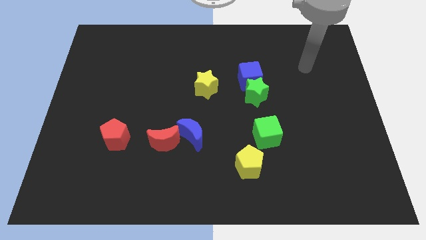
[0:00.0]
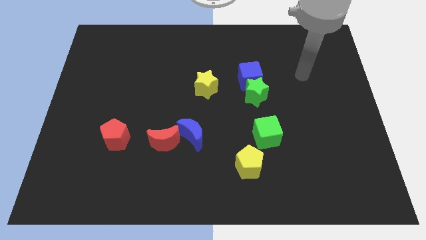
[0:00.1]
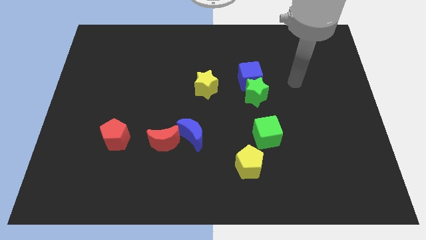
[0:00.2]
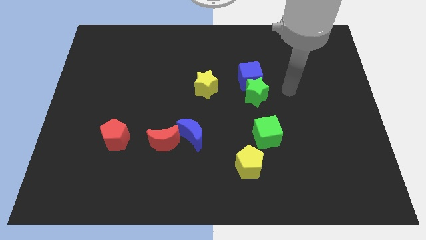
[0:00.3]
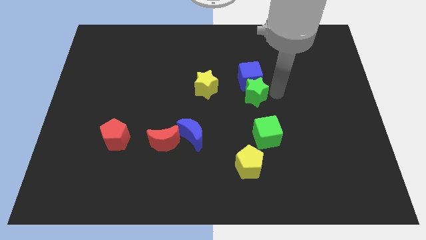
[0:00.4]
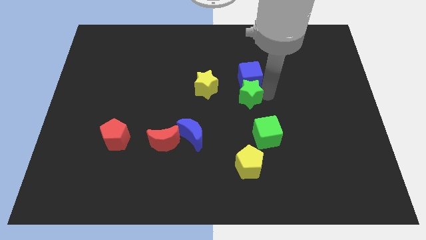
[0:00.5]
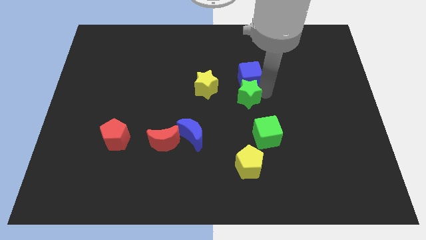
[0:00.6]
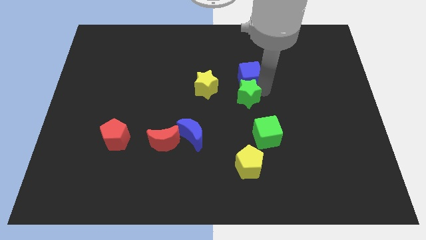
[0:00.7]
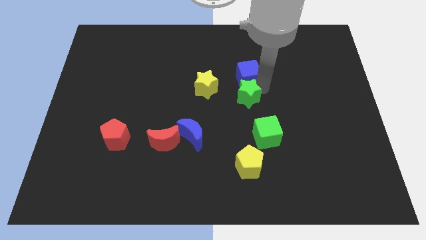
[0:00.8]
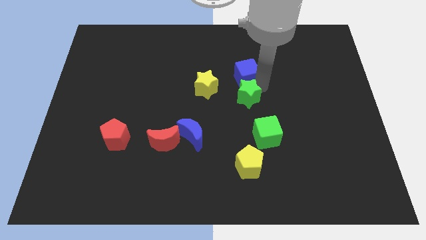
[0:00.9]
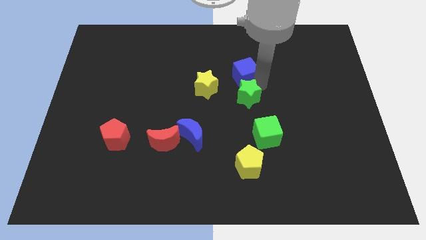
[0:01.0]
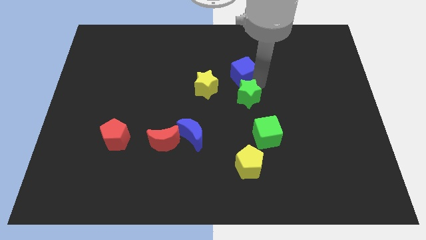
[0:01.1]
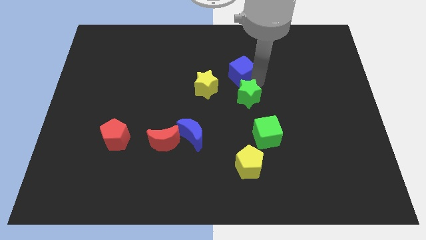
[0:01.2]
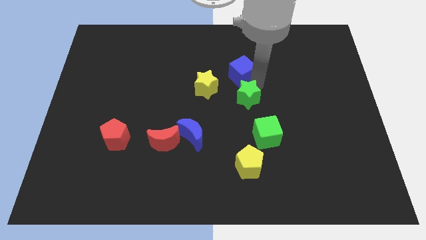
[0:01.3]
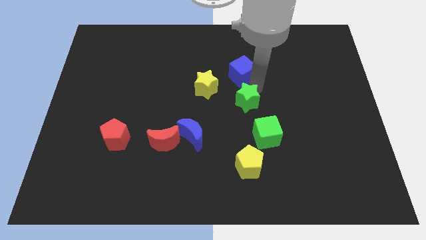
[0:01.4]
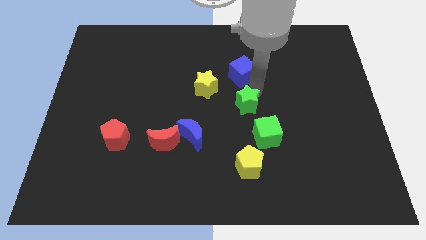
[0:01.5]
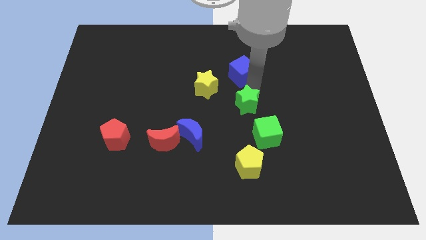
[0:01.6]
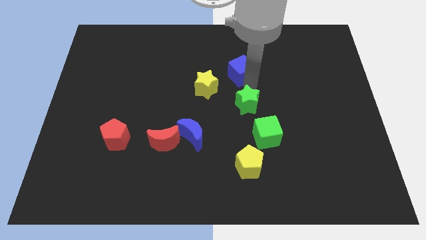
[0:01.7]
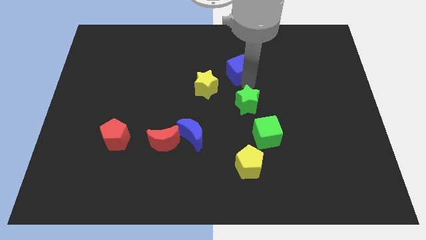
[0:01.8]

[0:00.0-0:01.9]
move the blue cube away from the green star

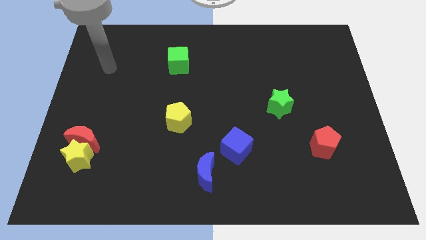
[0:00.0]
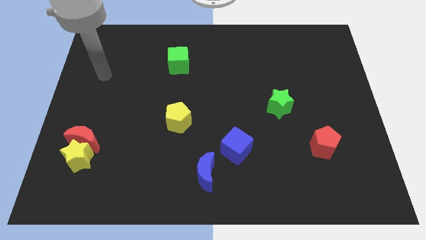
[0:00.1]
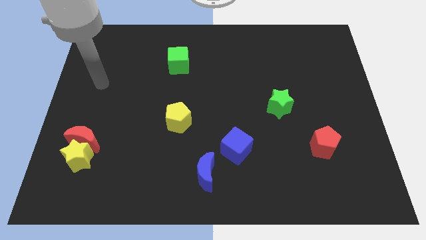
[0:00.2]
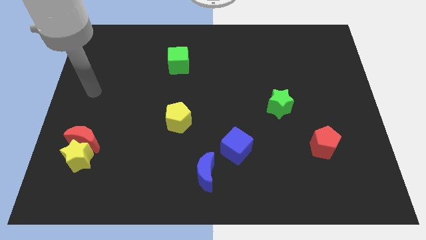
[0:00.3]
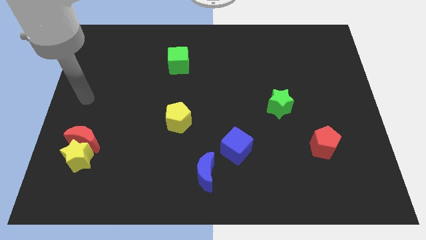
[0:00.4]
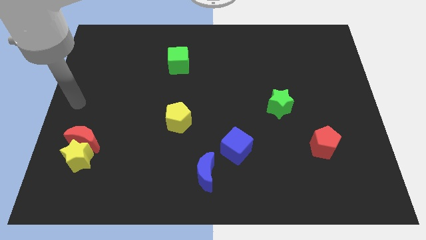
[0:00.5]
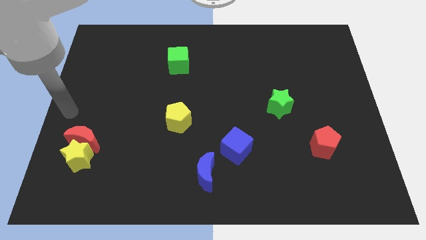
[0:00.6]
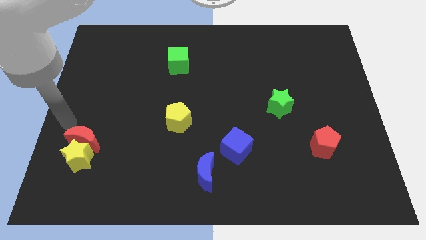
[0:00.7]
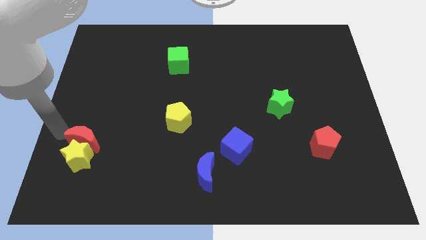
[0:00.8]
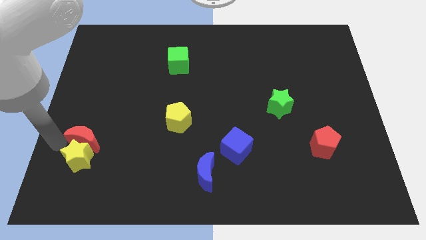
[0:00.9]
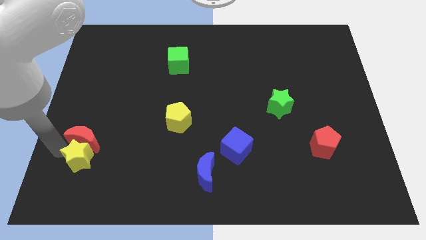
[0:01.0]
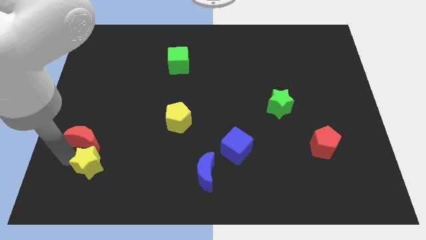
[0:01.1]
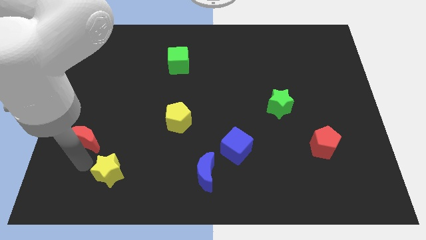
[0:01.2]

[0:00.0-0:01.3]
move the red moon away from the yellow star

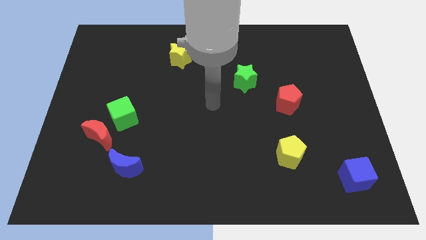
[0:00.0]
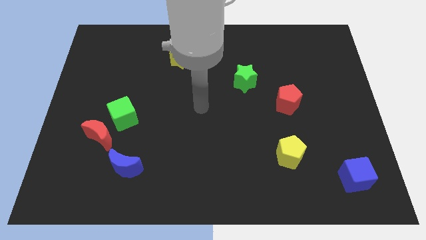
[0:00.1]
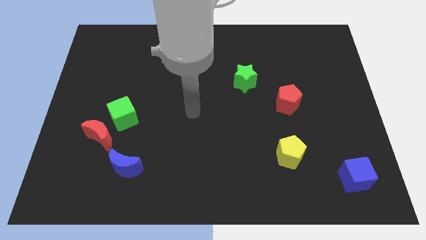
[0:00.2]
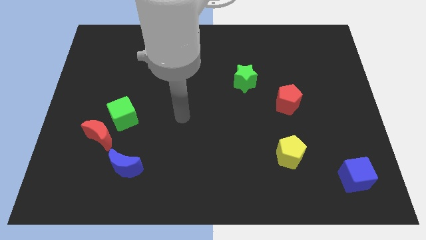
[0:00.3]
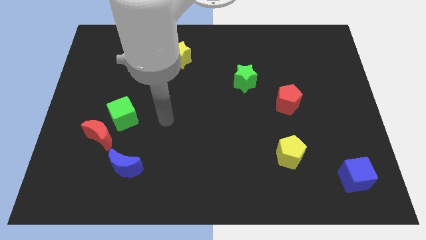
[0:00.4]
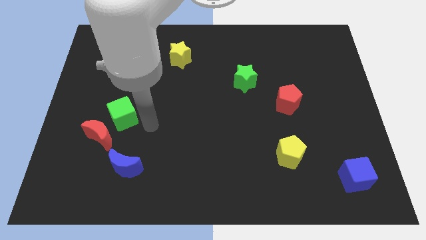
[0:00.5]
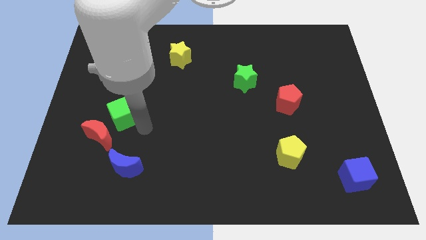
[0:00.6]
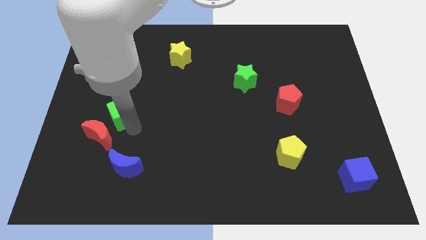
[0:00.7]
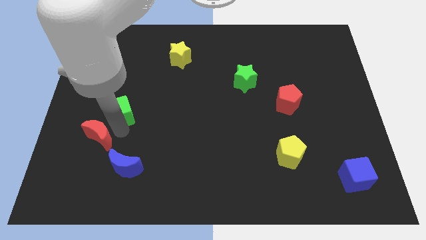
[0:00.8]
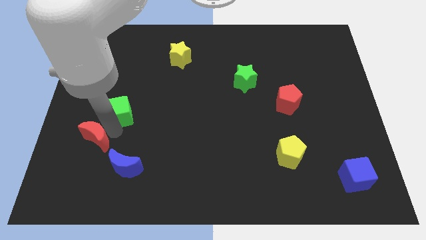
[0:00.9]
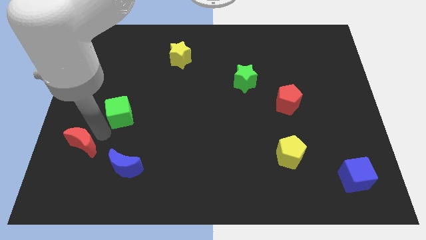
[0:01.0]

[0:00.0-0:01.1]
move the green cube away from the red moon

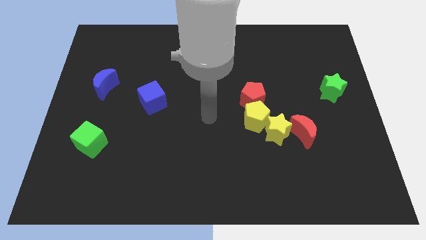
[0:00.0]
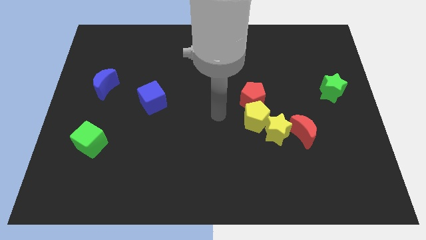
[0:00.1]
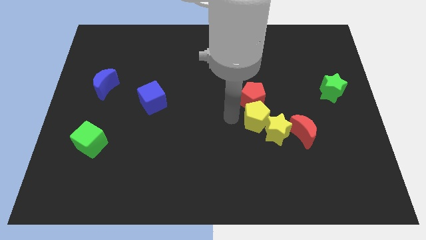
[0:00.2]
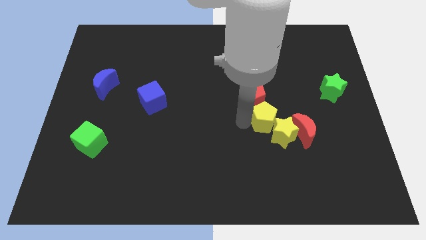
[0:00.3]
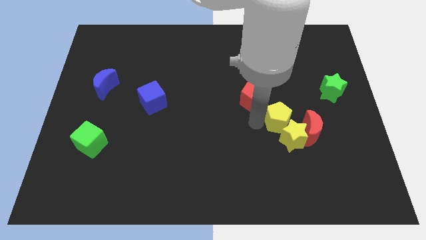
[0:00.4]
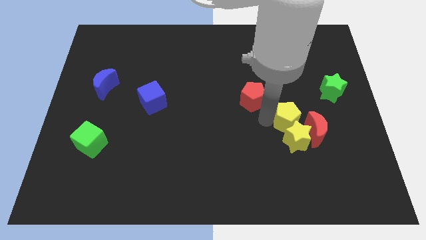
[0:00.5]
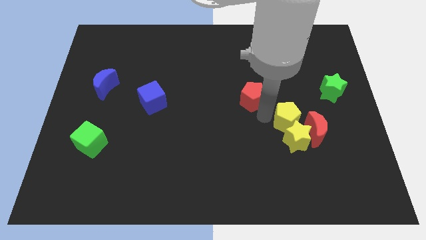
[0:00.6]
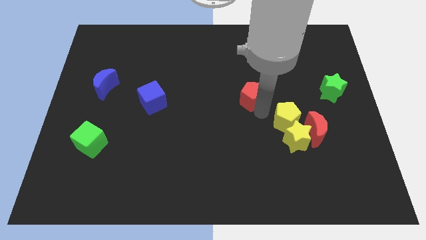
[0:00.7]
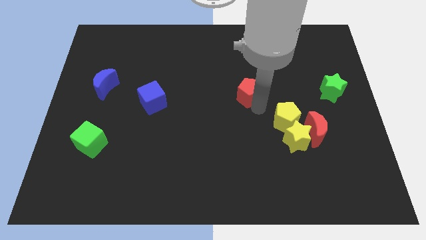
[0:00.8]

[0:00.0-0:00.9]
pull the red pentagon apart from the yellow pentagon

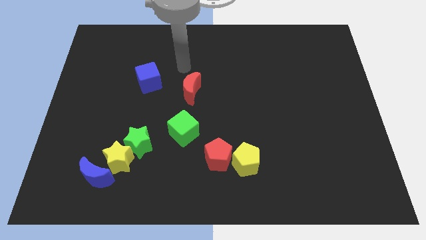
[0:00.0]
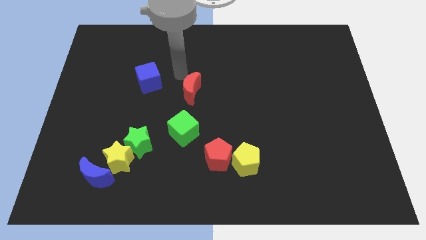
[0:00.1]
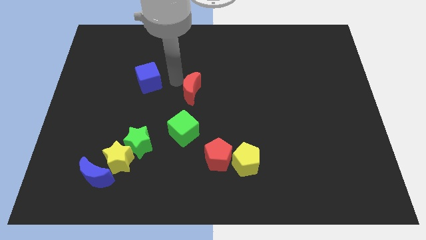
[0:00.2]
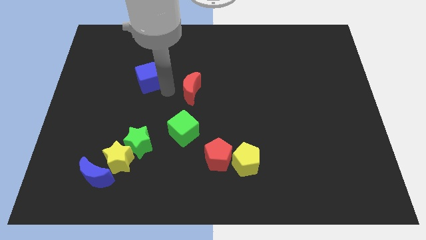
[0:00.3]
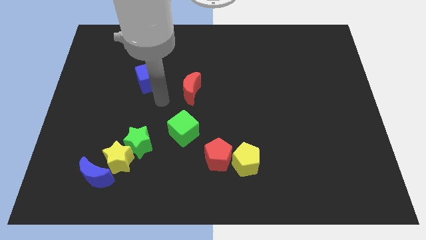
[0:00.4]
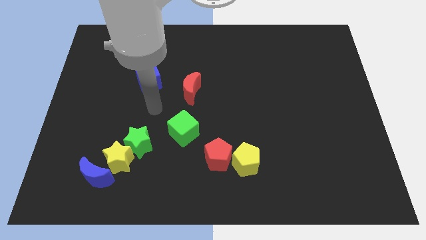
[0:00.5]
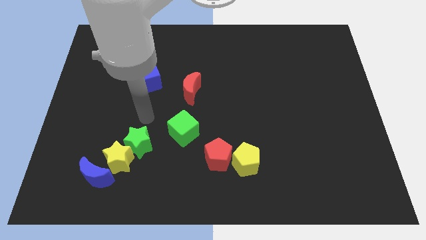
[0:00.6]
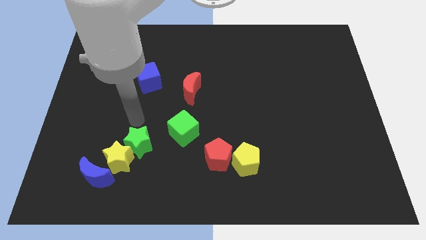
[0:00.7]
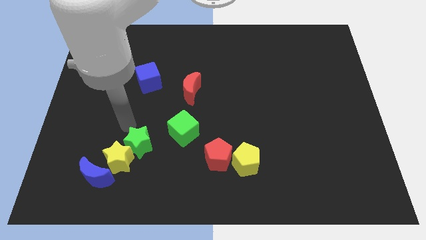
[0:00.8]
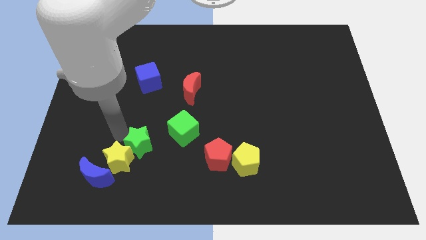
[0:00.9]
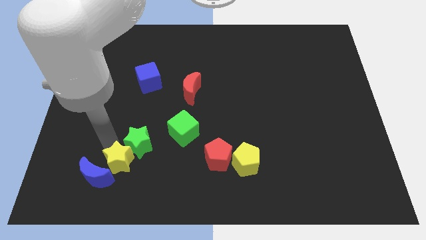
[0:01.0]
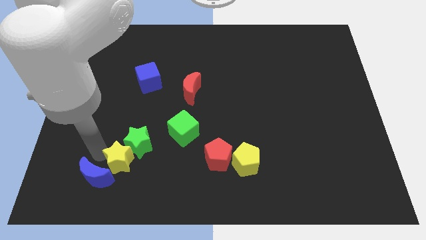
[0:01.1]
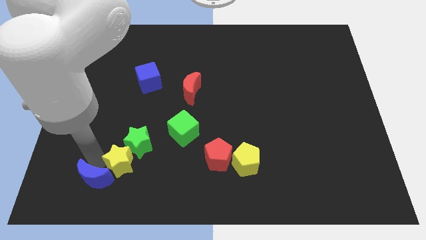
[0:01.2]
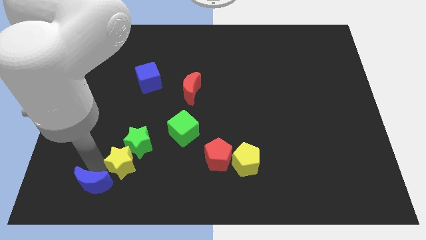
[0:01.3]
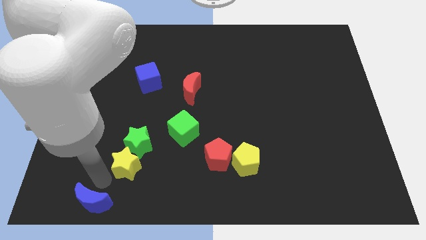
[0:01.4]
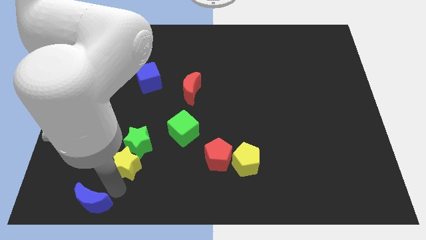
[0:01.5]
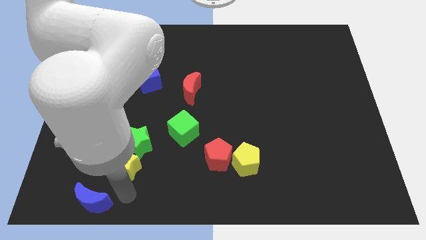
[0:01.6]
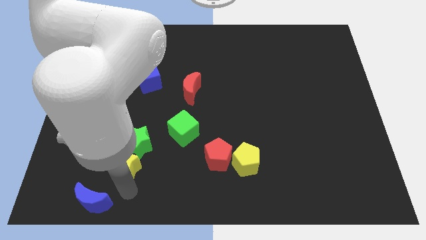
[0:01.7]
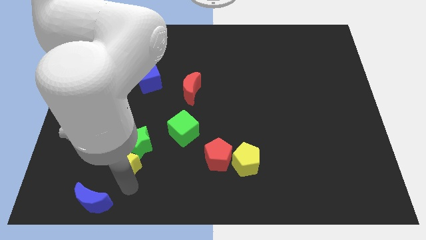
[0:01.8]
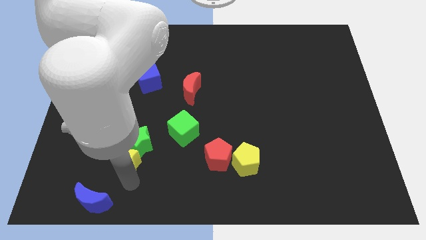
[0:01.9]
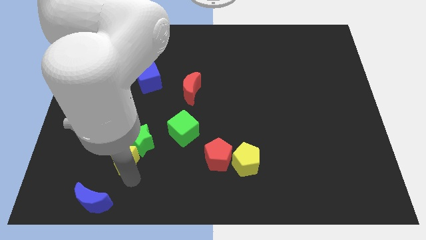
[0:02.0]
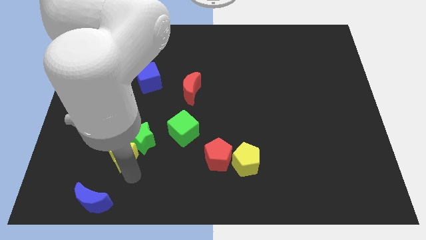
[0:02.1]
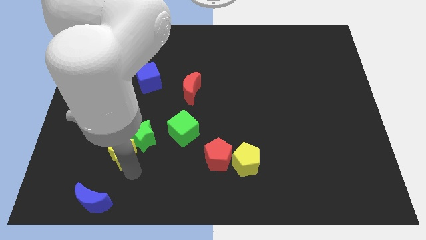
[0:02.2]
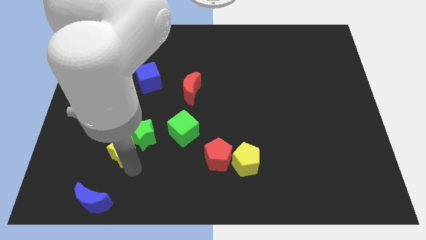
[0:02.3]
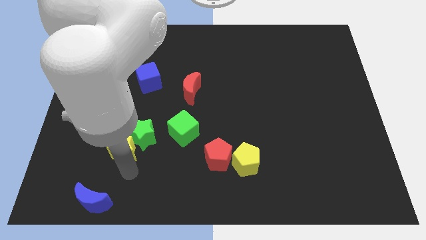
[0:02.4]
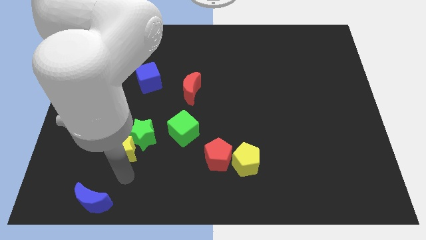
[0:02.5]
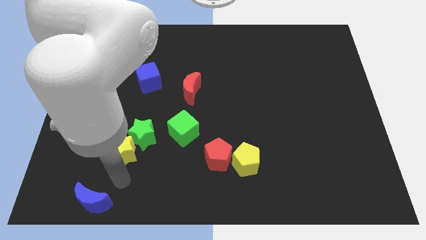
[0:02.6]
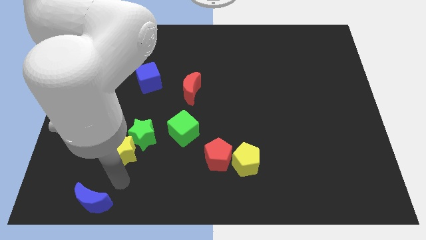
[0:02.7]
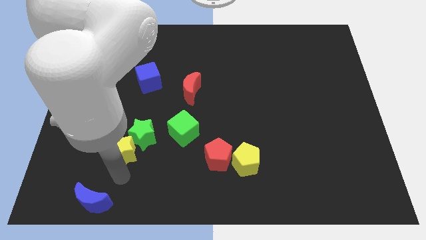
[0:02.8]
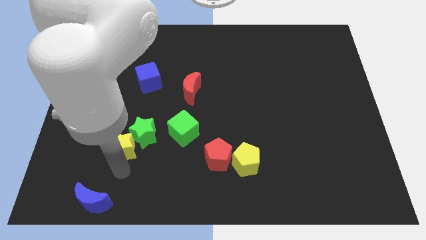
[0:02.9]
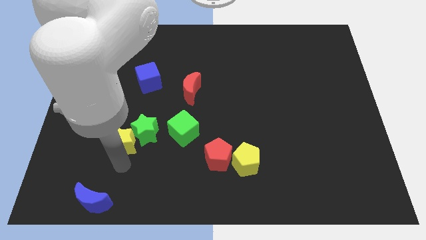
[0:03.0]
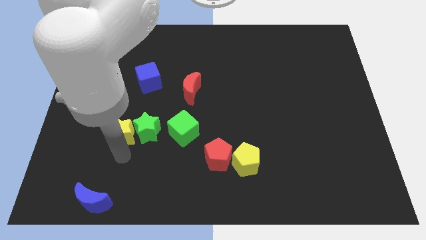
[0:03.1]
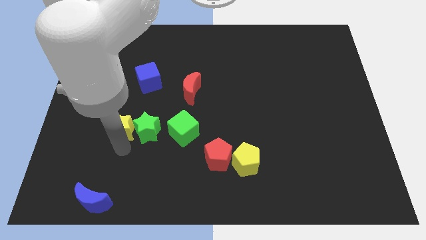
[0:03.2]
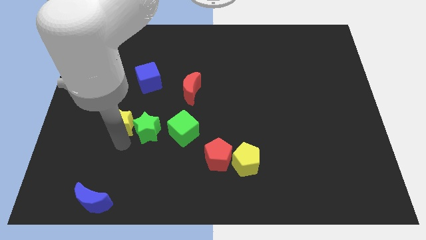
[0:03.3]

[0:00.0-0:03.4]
separate the yellow star from the green star and blue moon

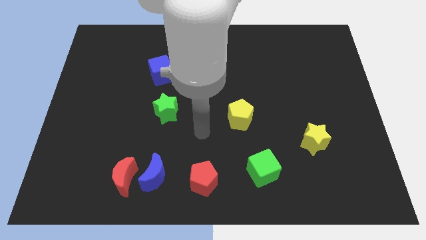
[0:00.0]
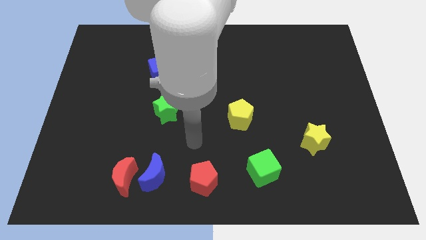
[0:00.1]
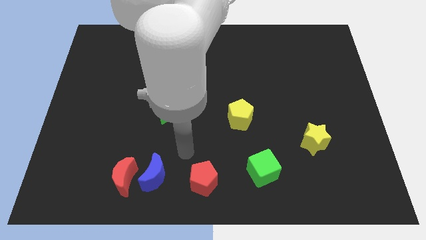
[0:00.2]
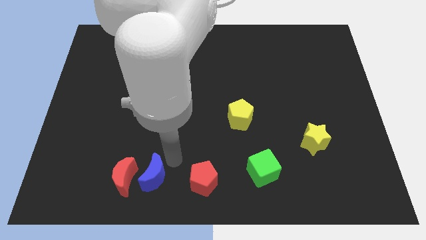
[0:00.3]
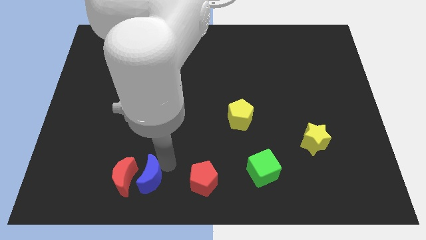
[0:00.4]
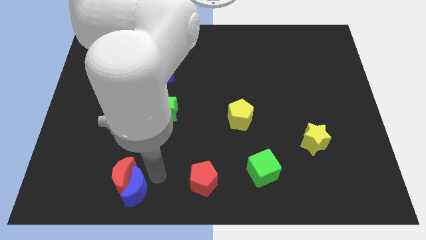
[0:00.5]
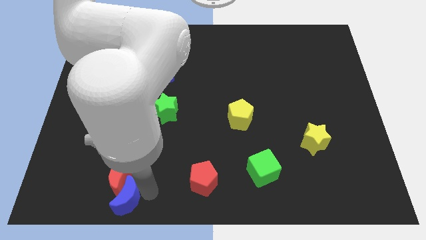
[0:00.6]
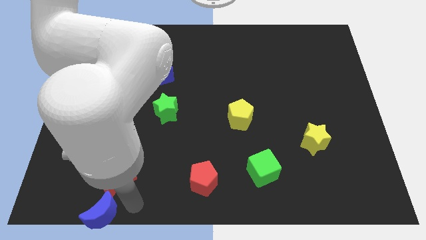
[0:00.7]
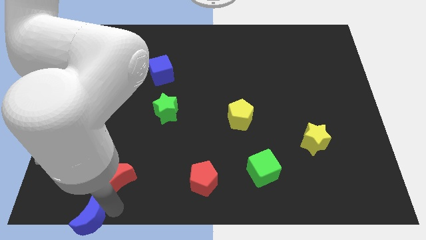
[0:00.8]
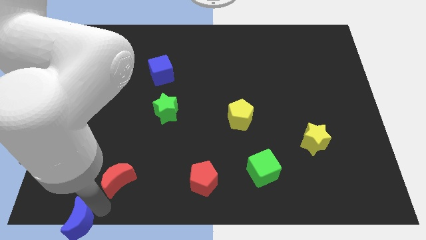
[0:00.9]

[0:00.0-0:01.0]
move the red moon away from the blue moon
